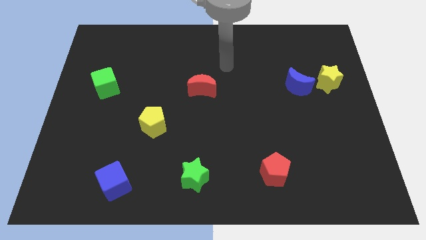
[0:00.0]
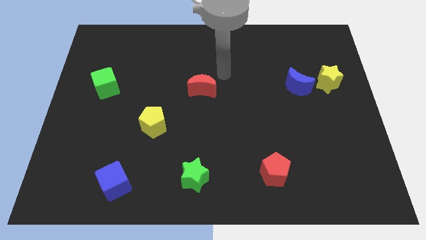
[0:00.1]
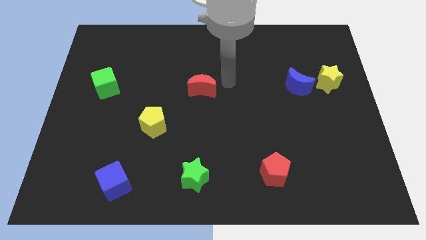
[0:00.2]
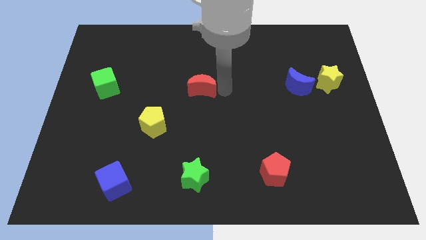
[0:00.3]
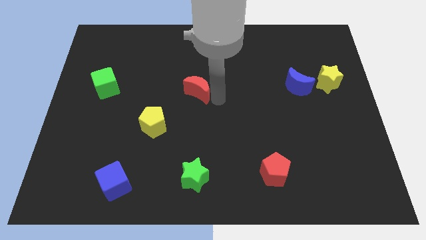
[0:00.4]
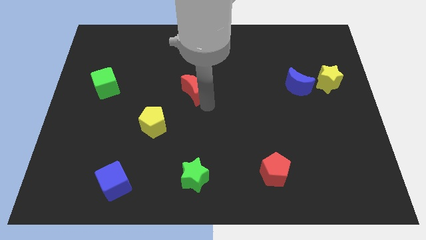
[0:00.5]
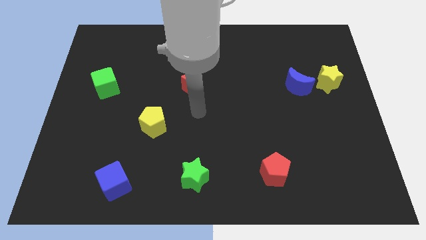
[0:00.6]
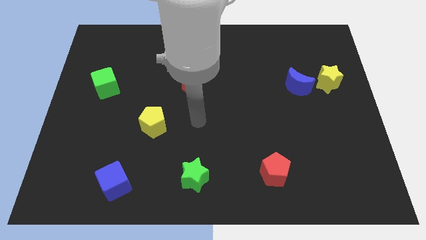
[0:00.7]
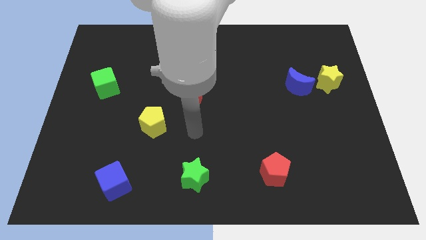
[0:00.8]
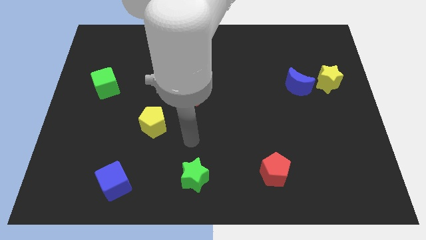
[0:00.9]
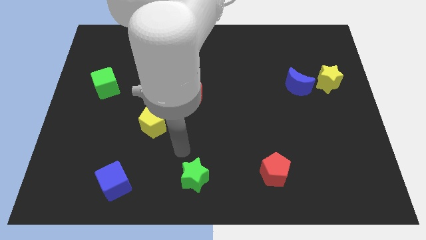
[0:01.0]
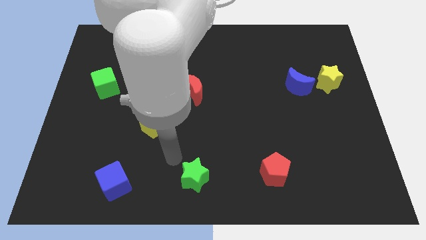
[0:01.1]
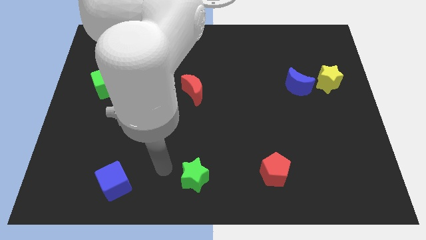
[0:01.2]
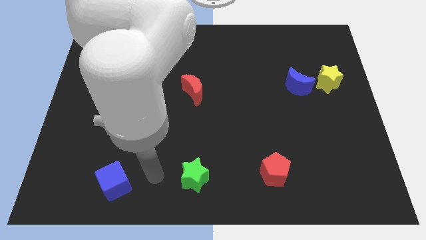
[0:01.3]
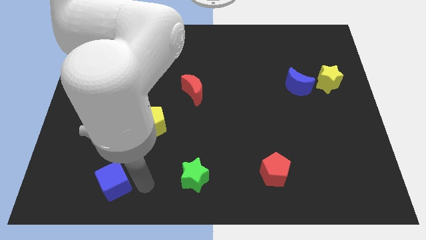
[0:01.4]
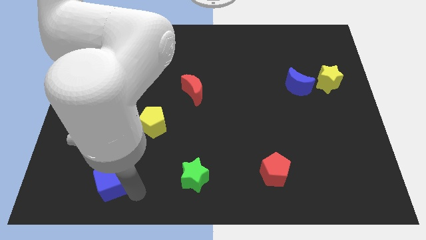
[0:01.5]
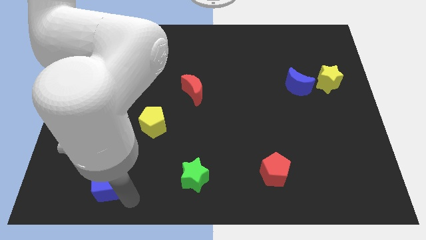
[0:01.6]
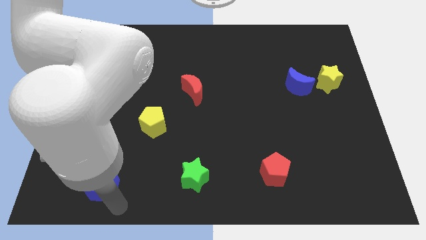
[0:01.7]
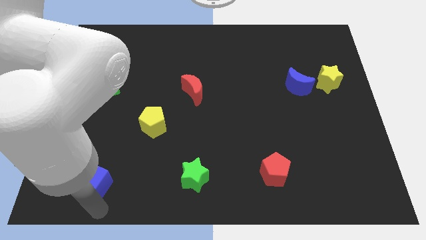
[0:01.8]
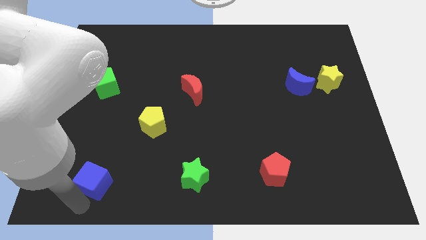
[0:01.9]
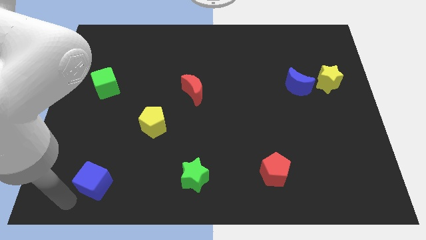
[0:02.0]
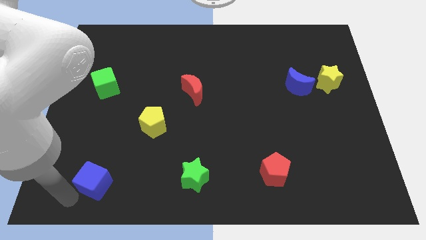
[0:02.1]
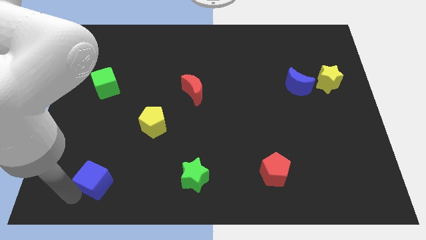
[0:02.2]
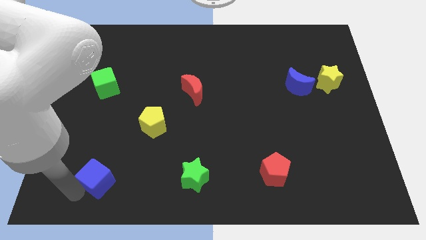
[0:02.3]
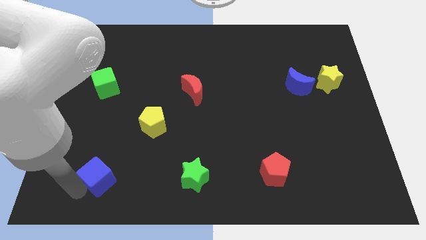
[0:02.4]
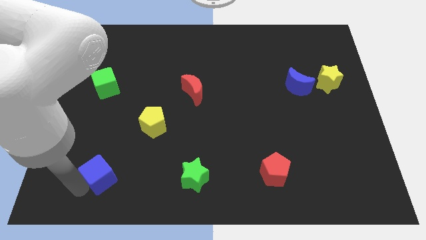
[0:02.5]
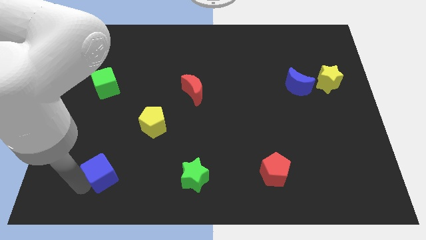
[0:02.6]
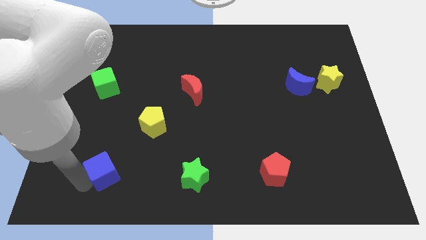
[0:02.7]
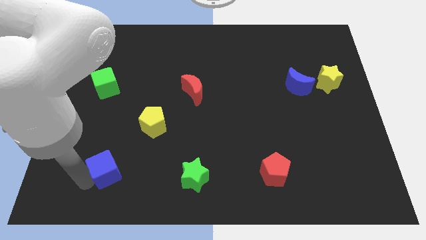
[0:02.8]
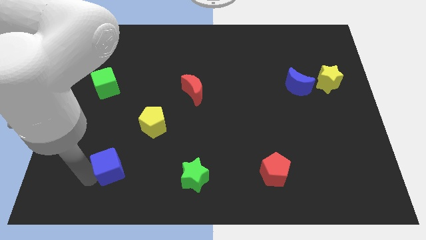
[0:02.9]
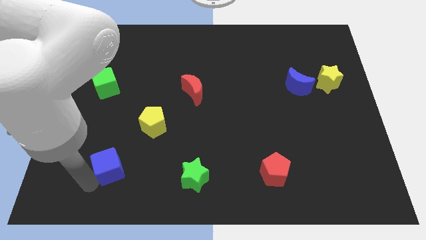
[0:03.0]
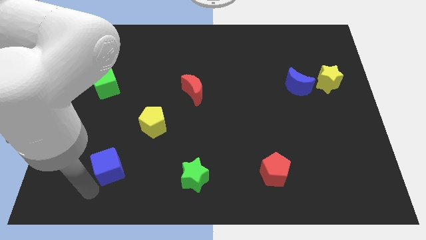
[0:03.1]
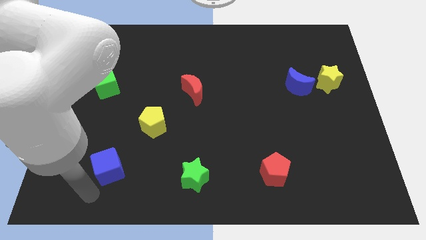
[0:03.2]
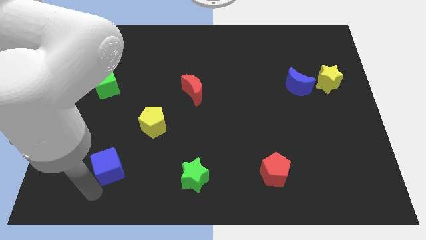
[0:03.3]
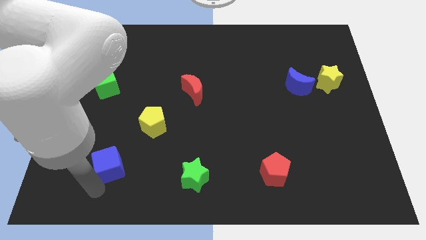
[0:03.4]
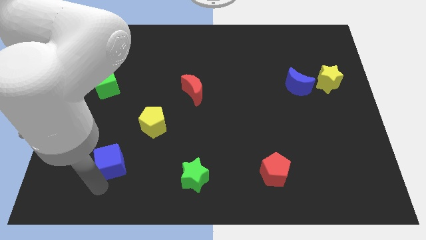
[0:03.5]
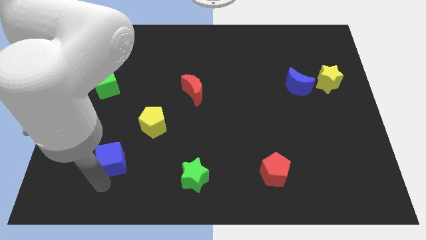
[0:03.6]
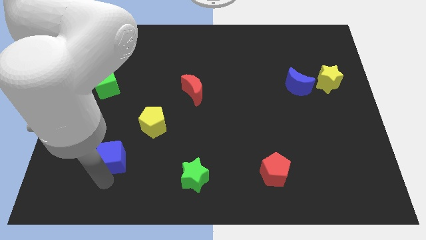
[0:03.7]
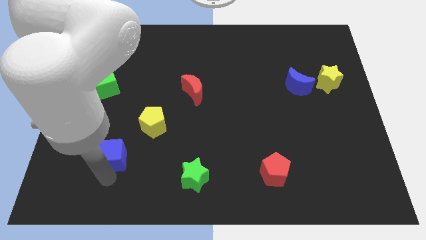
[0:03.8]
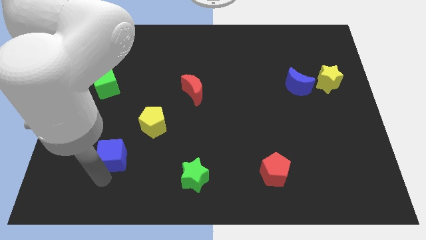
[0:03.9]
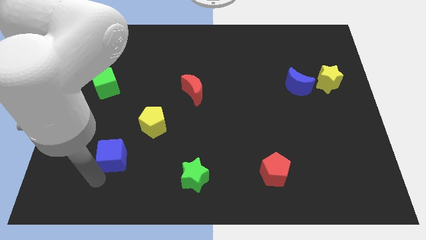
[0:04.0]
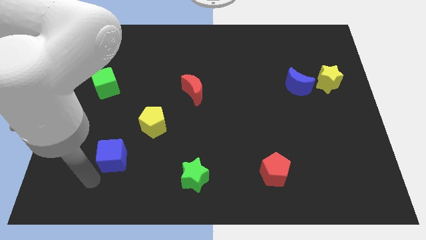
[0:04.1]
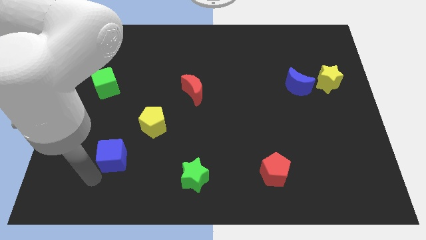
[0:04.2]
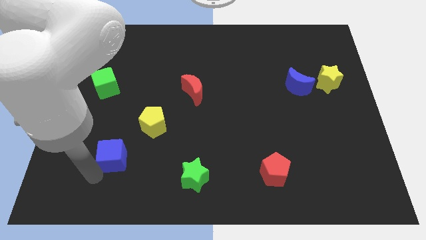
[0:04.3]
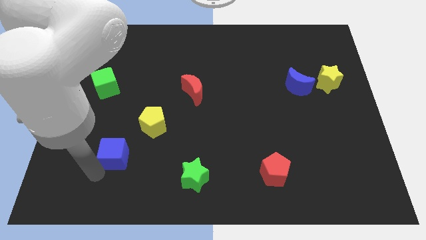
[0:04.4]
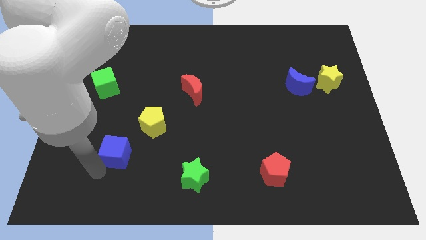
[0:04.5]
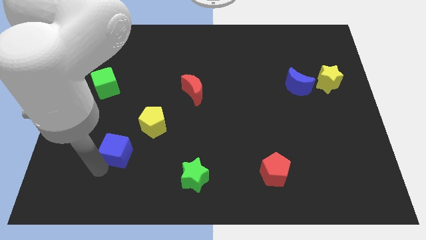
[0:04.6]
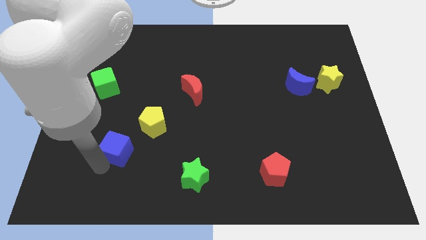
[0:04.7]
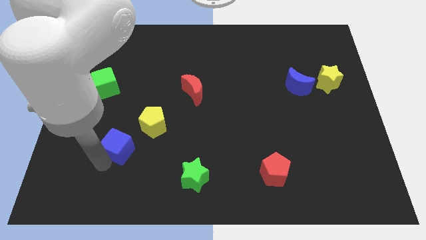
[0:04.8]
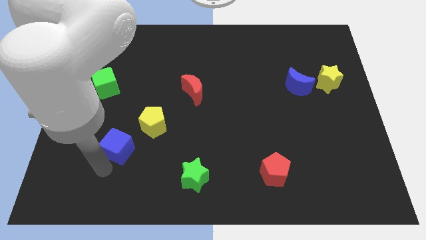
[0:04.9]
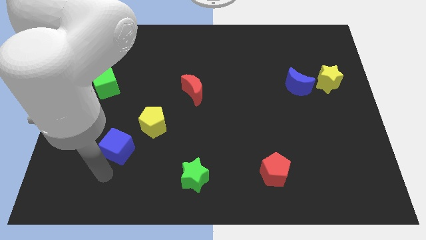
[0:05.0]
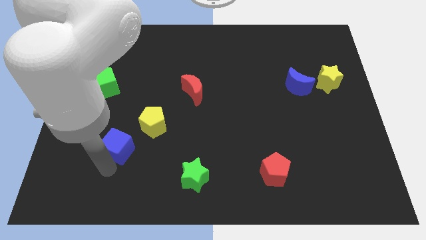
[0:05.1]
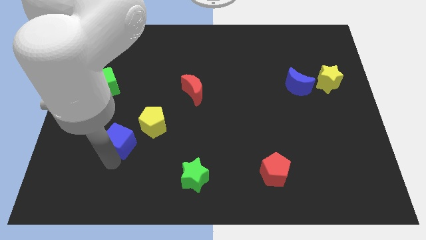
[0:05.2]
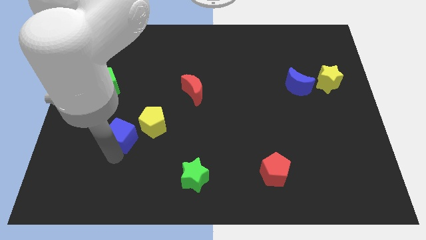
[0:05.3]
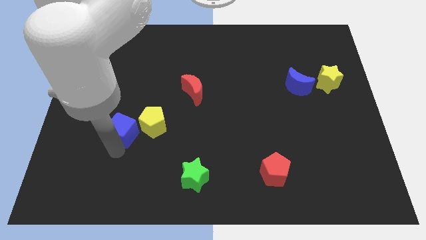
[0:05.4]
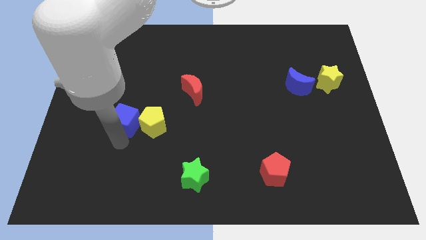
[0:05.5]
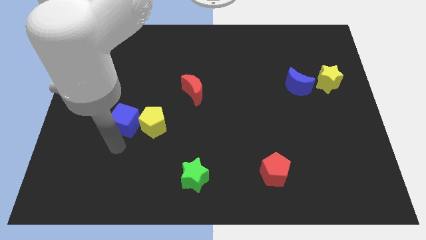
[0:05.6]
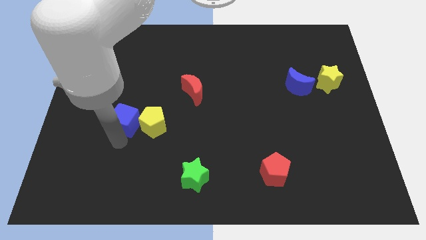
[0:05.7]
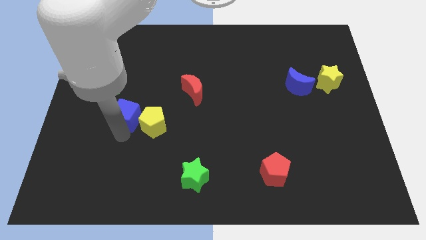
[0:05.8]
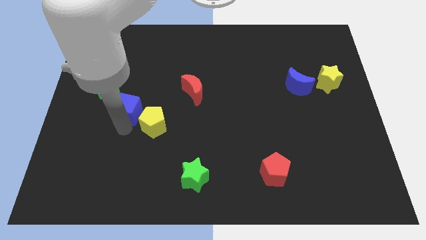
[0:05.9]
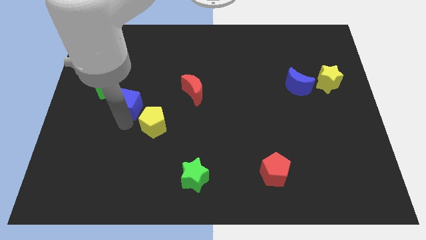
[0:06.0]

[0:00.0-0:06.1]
push the blue cube upwards

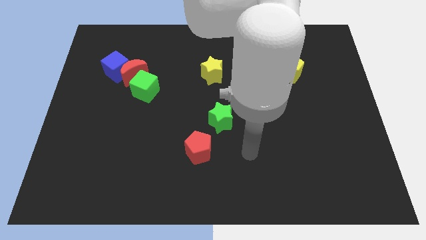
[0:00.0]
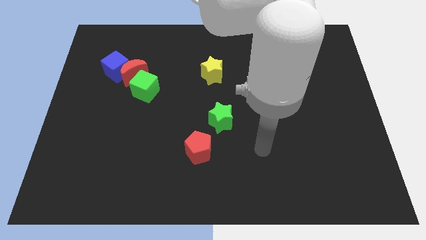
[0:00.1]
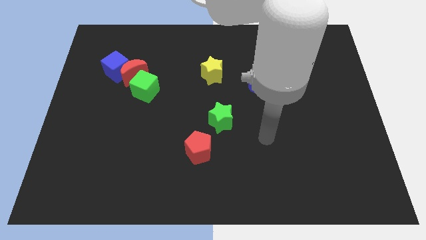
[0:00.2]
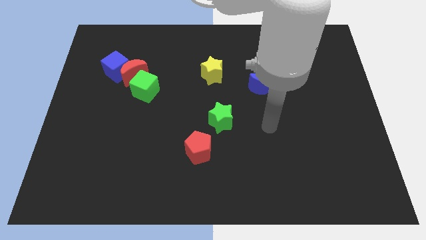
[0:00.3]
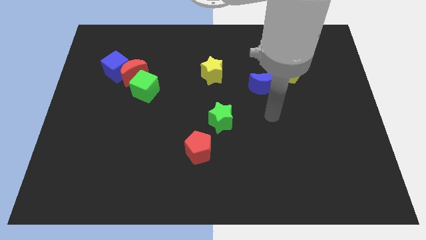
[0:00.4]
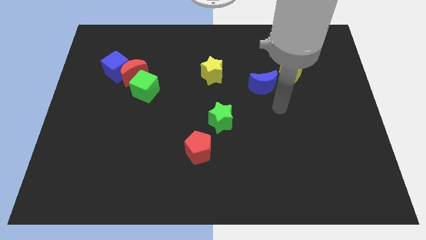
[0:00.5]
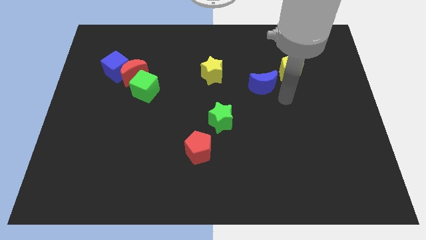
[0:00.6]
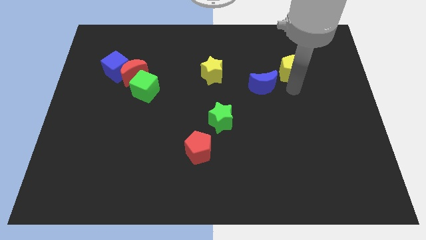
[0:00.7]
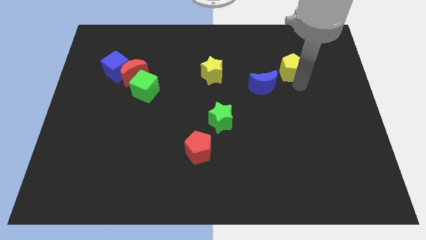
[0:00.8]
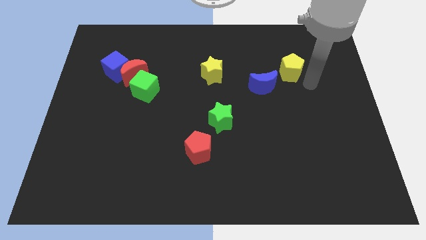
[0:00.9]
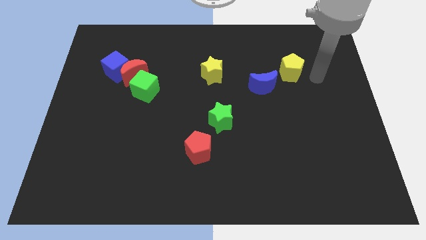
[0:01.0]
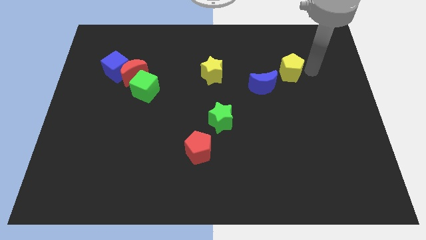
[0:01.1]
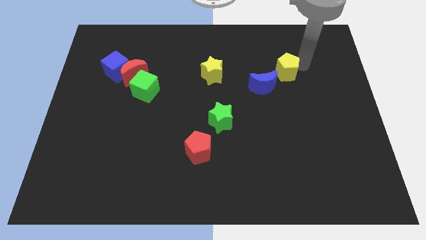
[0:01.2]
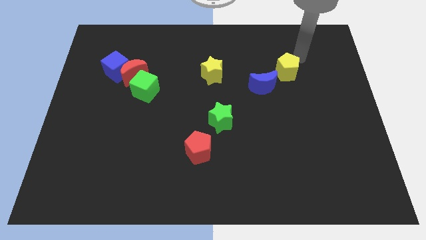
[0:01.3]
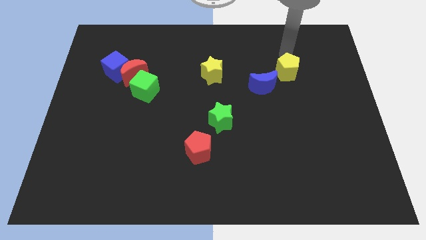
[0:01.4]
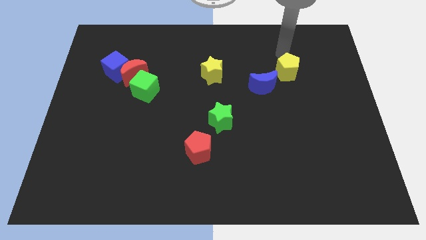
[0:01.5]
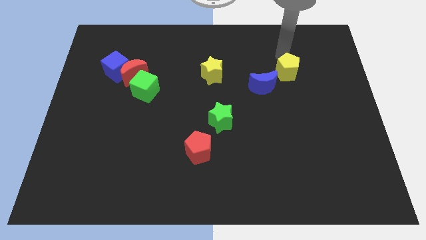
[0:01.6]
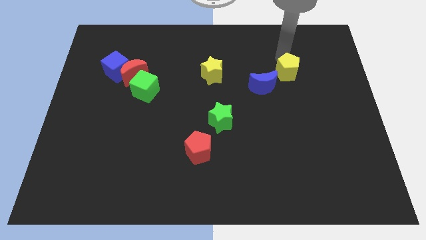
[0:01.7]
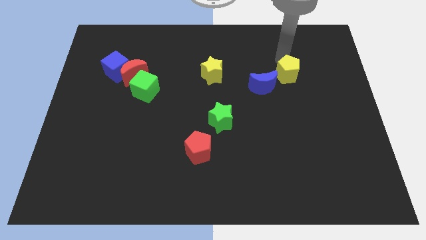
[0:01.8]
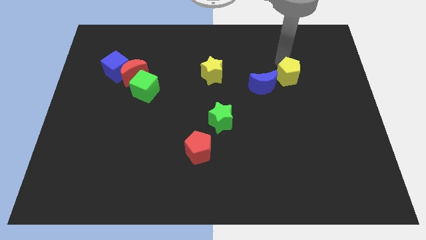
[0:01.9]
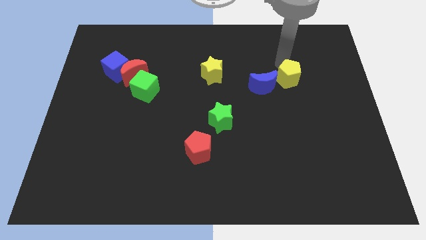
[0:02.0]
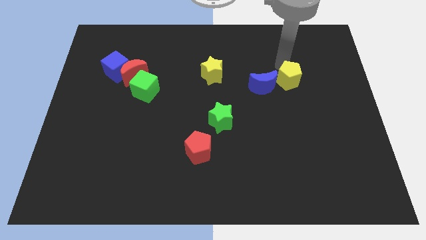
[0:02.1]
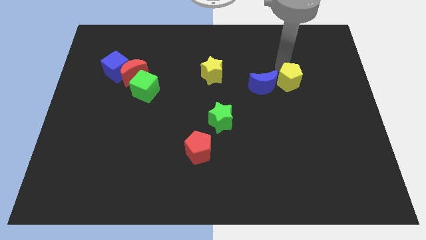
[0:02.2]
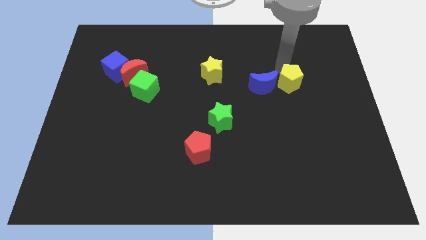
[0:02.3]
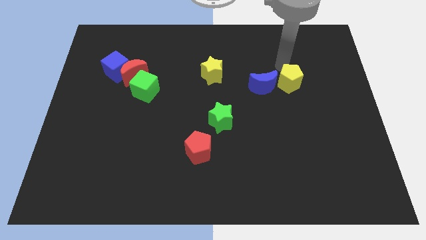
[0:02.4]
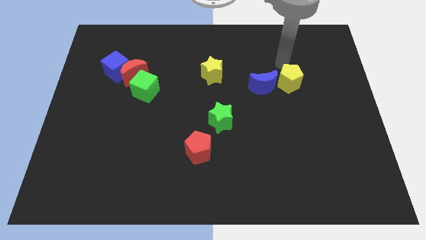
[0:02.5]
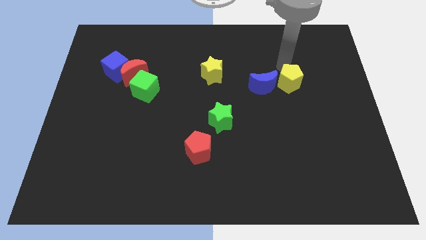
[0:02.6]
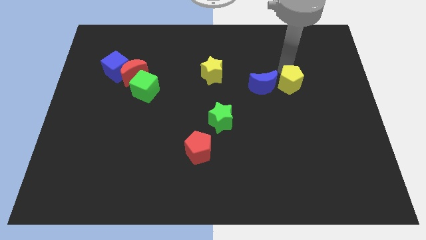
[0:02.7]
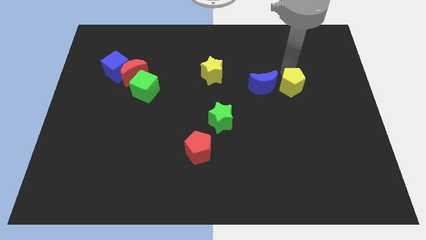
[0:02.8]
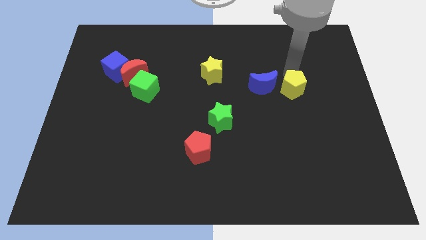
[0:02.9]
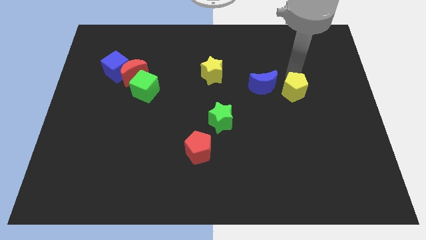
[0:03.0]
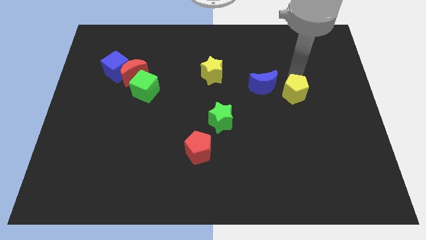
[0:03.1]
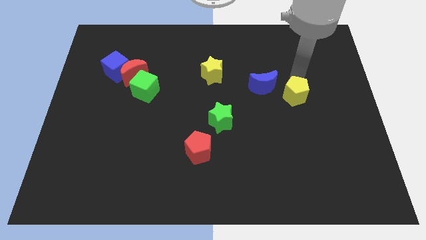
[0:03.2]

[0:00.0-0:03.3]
slide the yellow pentagon down a little
